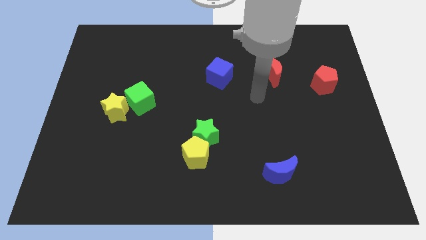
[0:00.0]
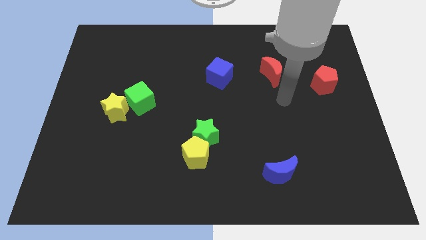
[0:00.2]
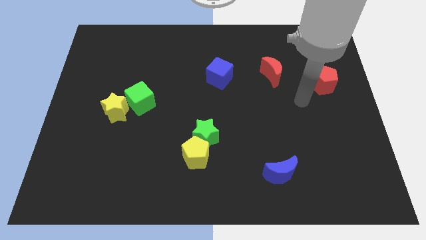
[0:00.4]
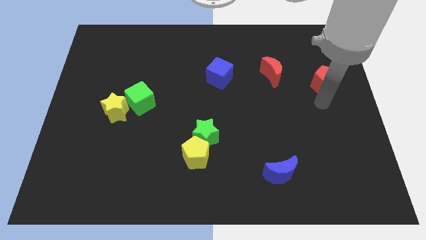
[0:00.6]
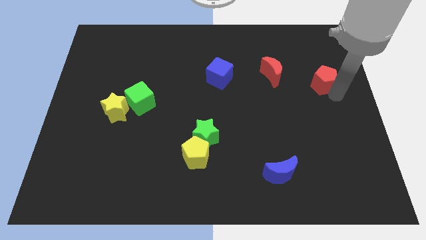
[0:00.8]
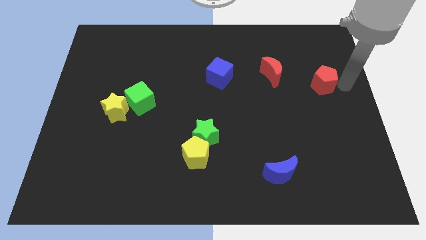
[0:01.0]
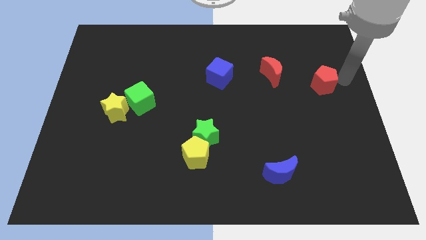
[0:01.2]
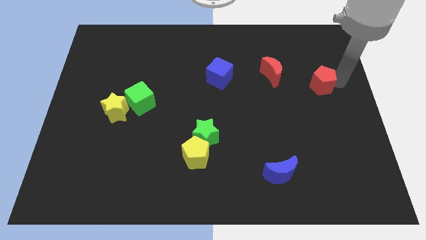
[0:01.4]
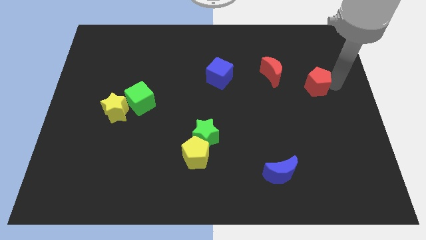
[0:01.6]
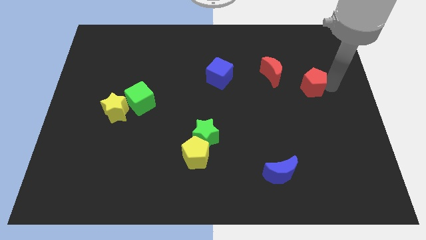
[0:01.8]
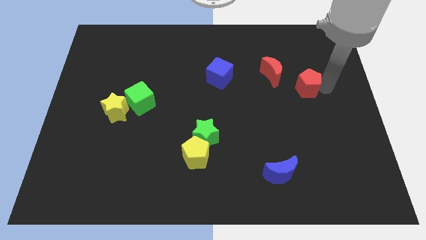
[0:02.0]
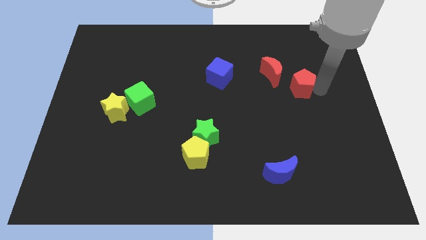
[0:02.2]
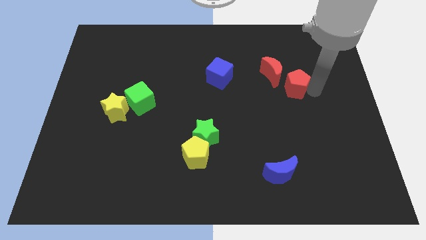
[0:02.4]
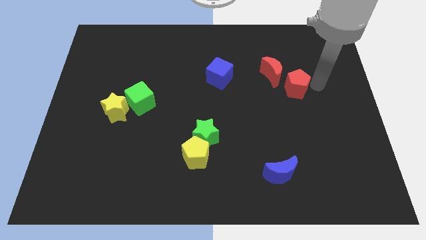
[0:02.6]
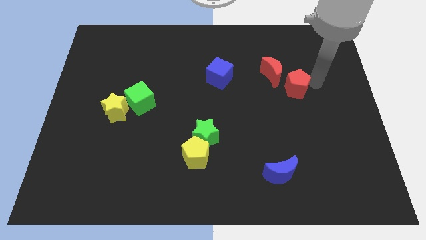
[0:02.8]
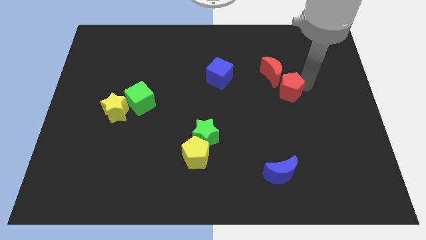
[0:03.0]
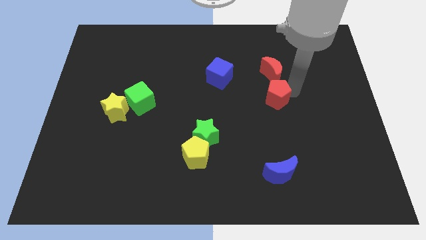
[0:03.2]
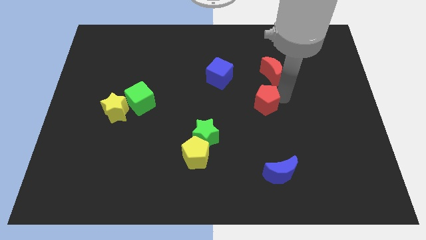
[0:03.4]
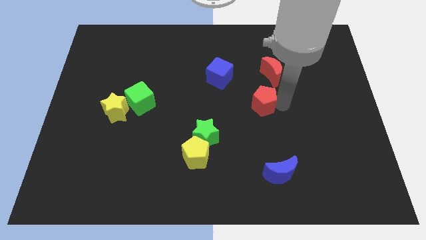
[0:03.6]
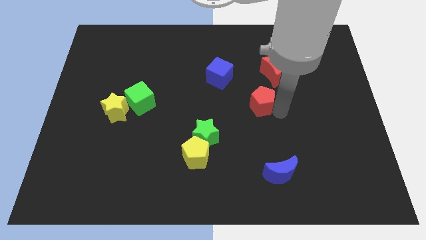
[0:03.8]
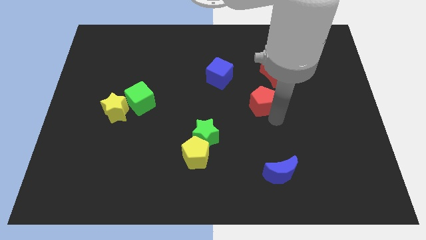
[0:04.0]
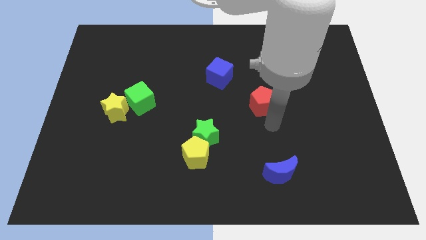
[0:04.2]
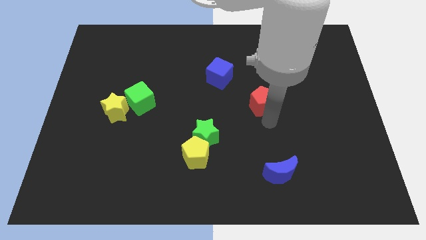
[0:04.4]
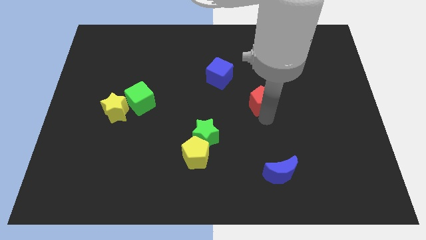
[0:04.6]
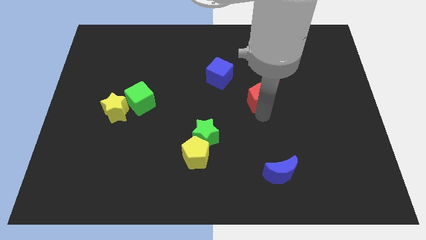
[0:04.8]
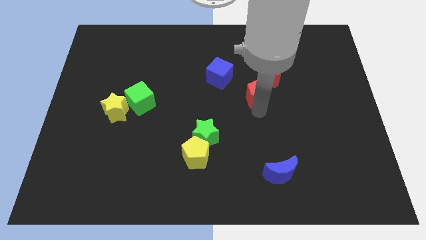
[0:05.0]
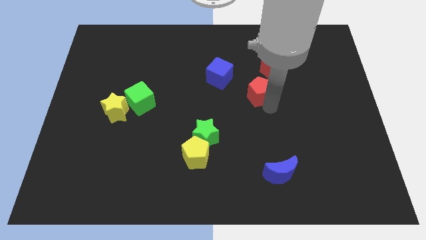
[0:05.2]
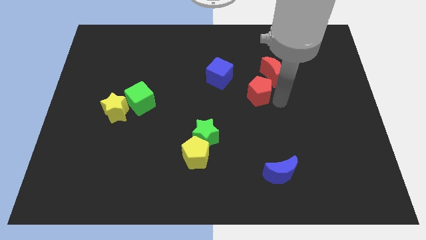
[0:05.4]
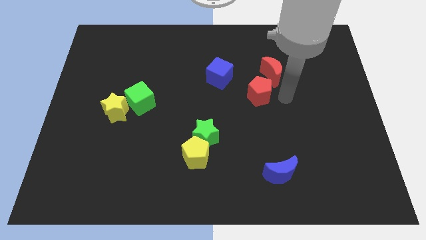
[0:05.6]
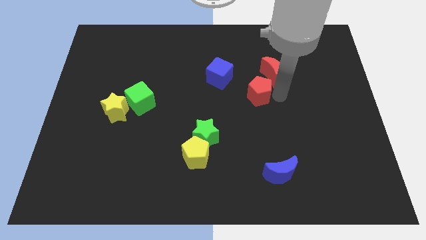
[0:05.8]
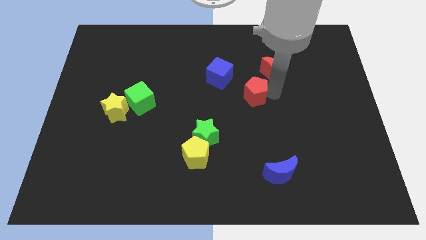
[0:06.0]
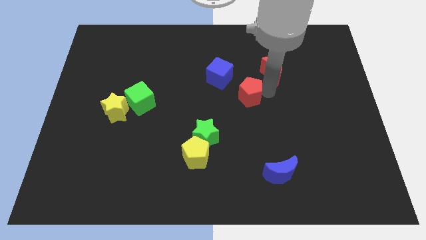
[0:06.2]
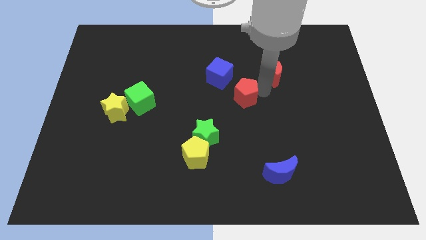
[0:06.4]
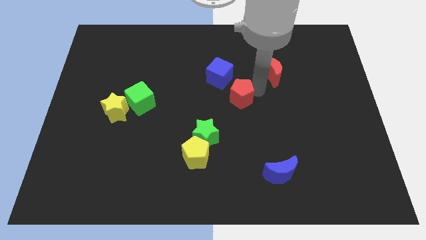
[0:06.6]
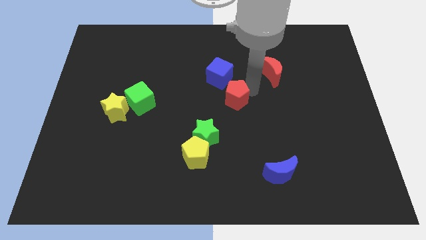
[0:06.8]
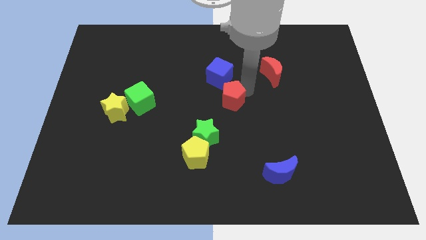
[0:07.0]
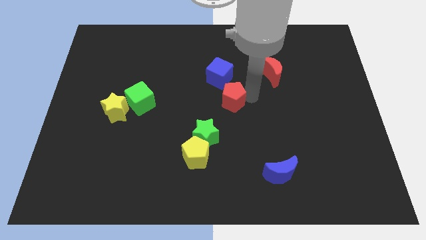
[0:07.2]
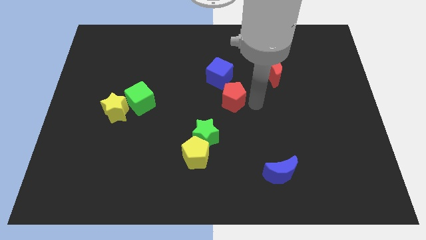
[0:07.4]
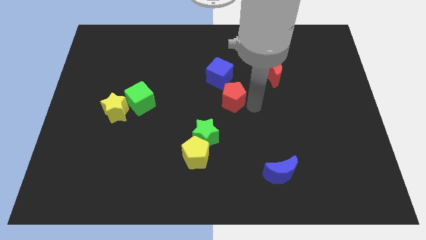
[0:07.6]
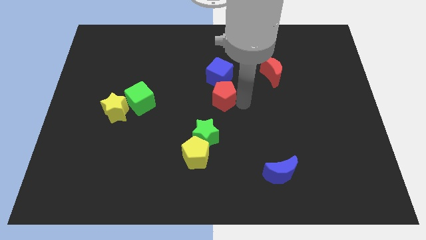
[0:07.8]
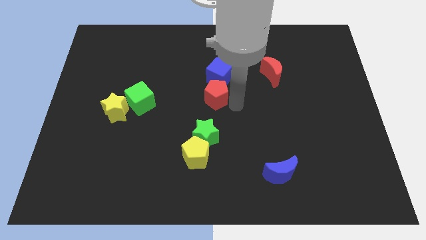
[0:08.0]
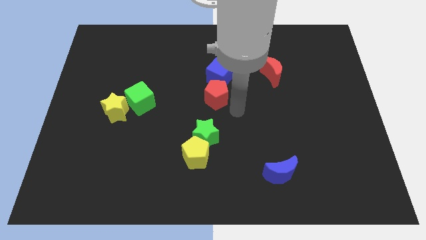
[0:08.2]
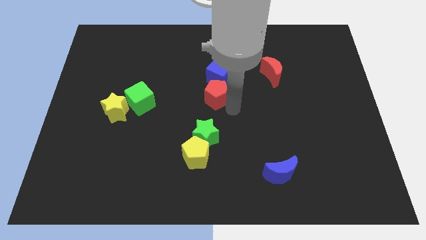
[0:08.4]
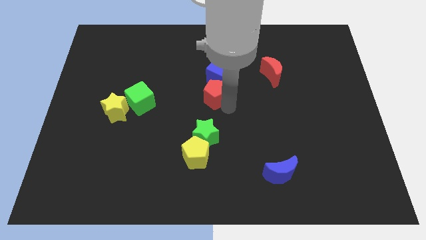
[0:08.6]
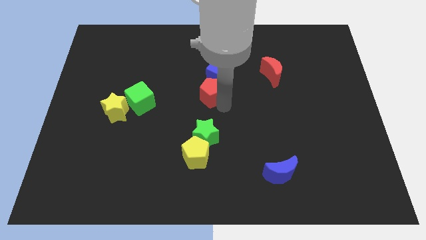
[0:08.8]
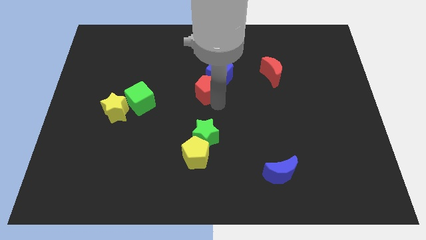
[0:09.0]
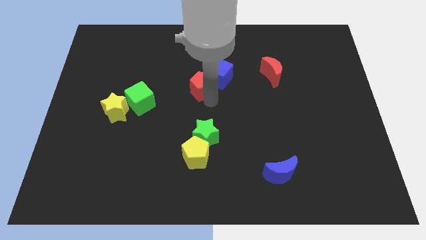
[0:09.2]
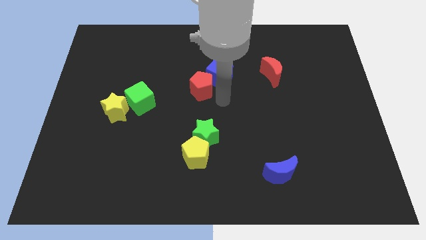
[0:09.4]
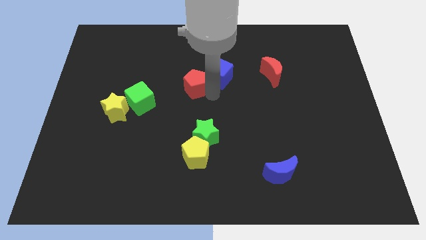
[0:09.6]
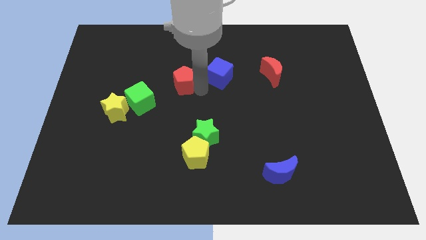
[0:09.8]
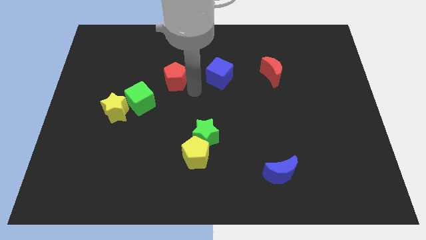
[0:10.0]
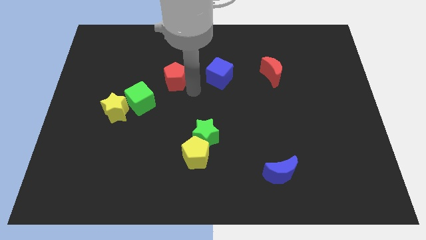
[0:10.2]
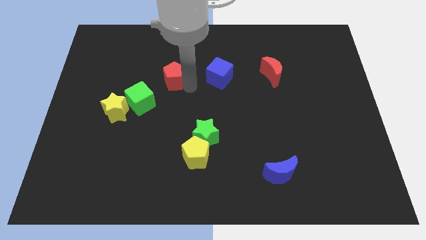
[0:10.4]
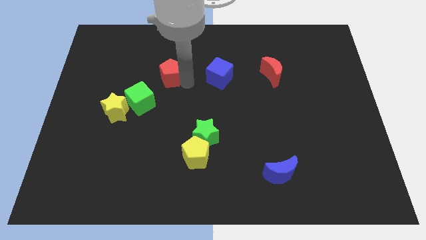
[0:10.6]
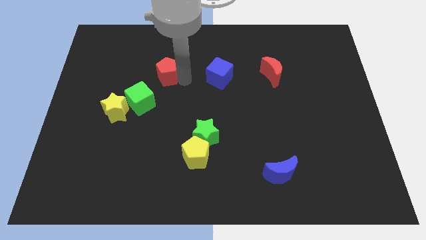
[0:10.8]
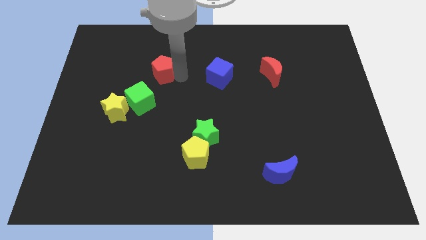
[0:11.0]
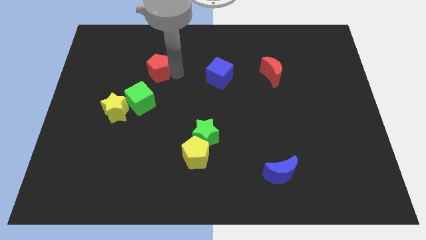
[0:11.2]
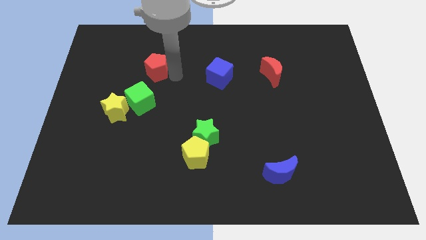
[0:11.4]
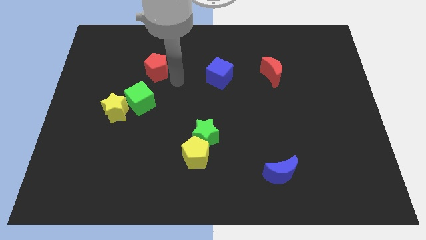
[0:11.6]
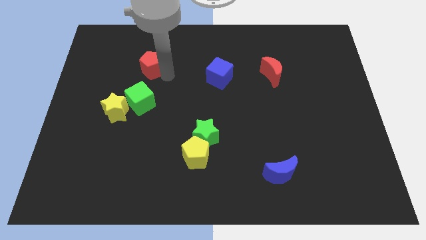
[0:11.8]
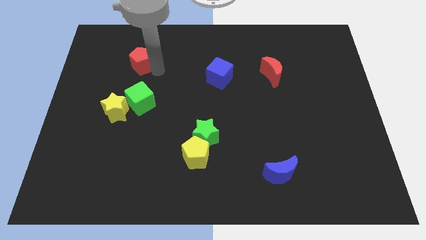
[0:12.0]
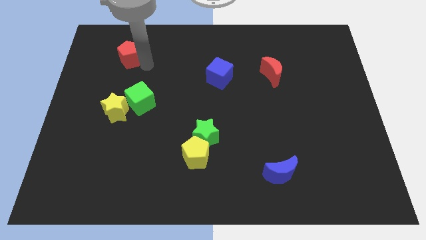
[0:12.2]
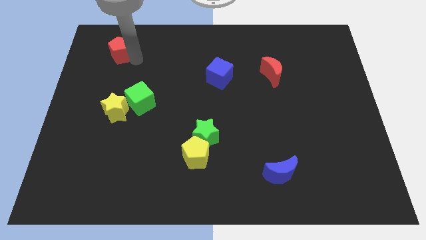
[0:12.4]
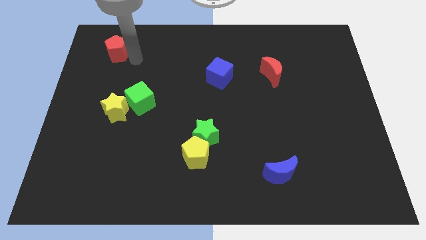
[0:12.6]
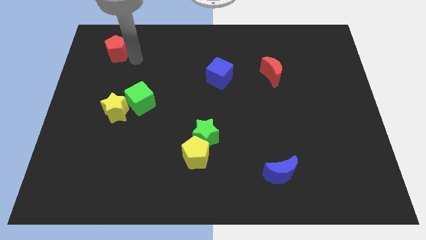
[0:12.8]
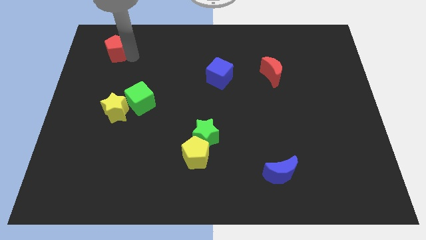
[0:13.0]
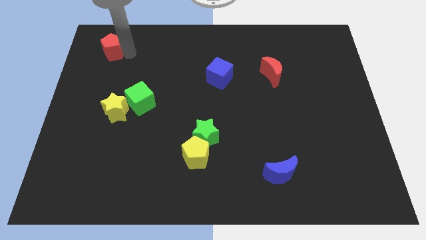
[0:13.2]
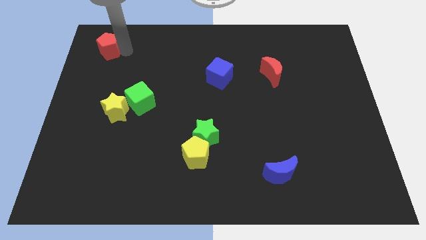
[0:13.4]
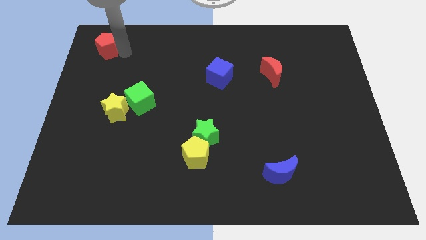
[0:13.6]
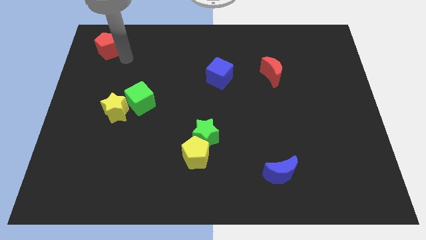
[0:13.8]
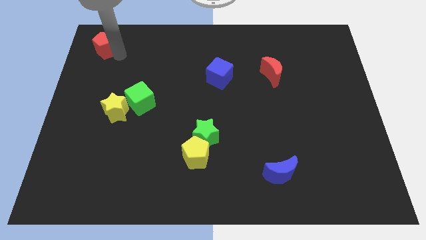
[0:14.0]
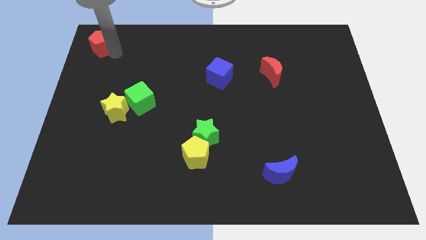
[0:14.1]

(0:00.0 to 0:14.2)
put the red pentagon to the top left of the board
